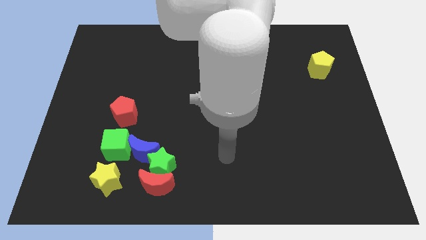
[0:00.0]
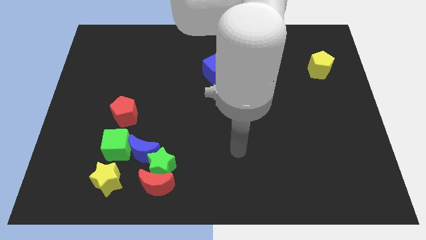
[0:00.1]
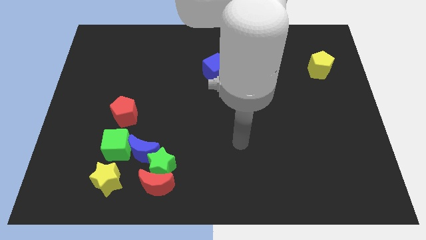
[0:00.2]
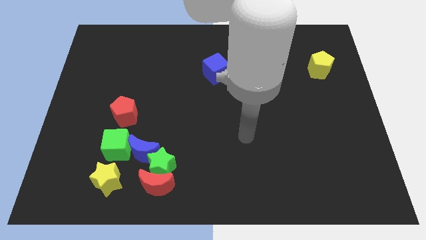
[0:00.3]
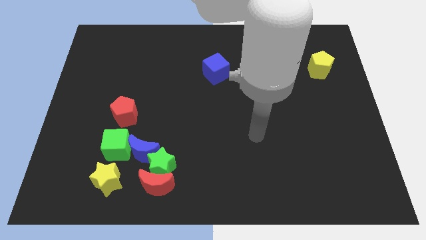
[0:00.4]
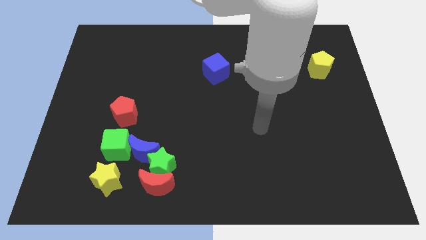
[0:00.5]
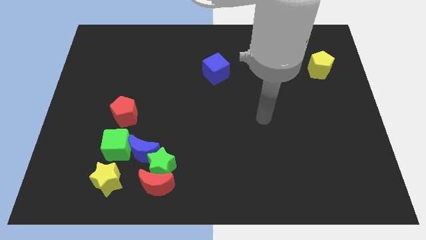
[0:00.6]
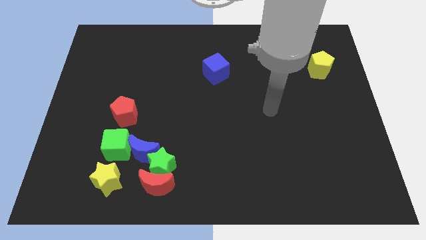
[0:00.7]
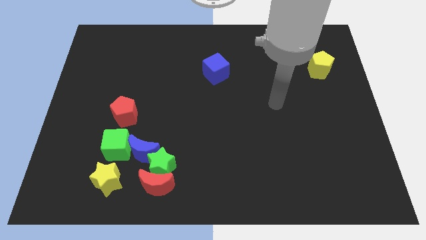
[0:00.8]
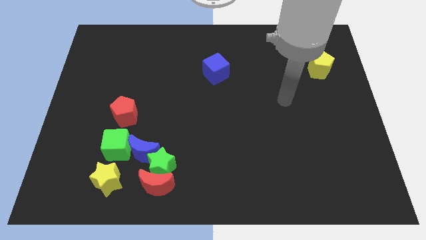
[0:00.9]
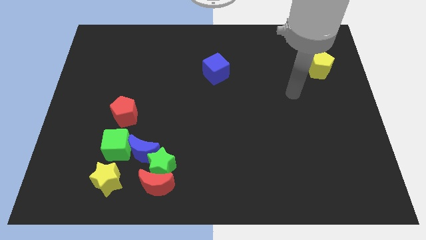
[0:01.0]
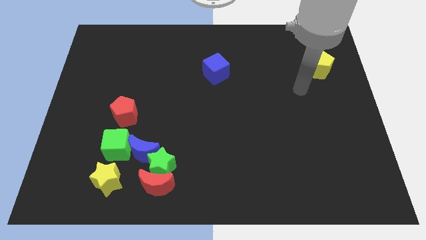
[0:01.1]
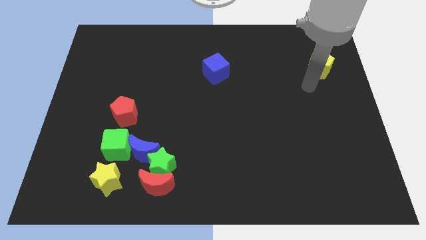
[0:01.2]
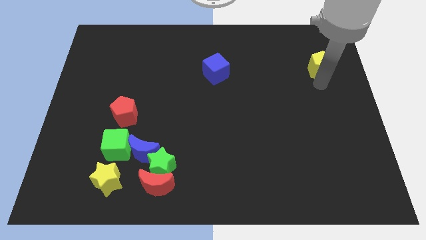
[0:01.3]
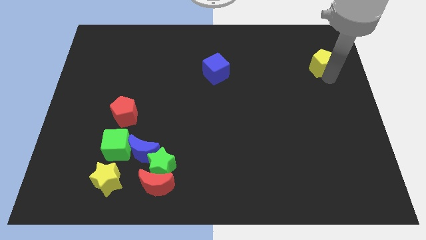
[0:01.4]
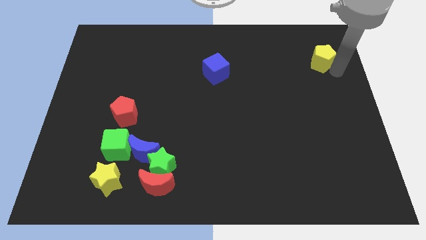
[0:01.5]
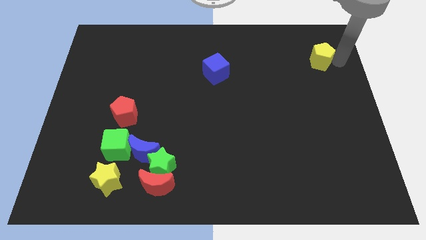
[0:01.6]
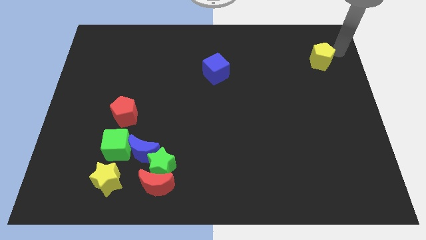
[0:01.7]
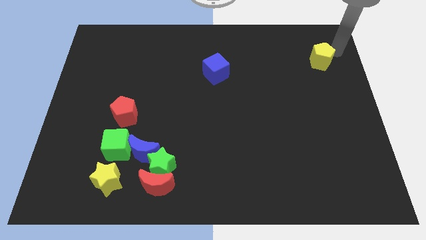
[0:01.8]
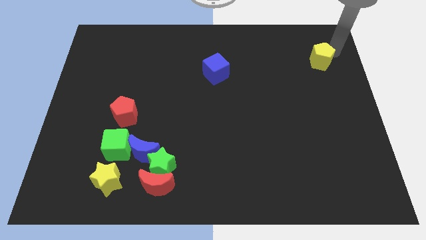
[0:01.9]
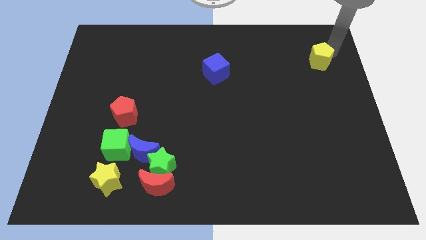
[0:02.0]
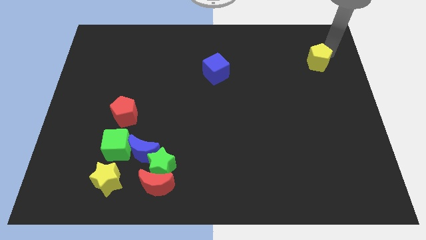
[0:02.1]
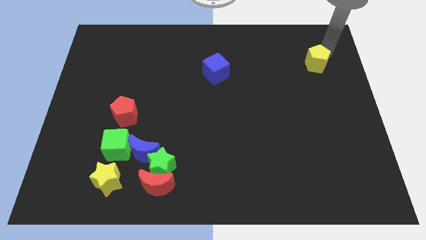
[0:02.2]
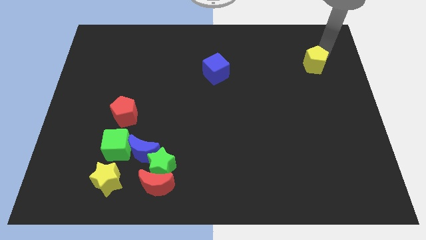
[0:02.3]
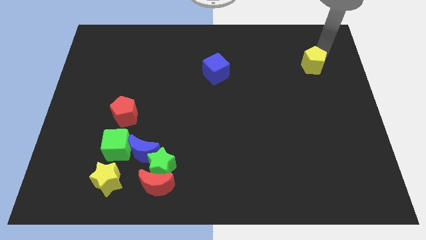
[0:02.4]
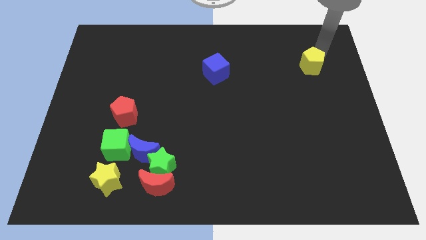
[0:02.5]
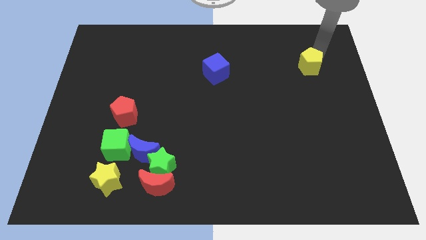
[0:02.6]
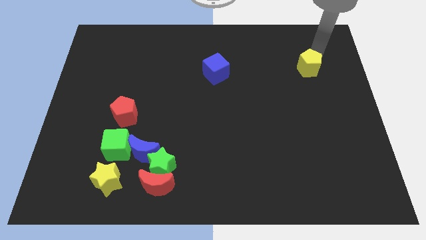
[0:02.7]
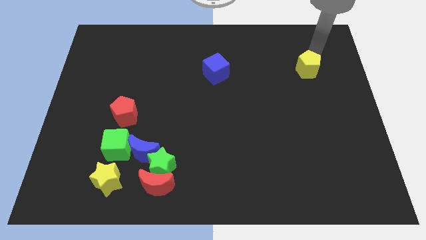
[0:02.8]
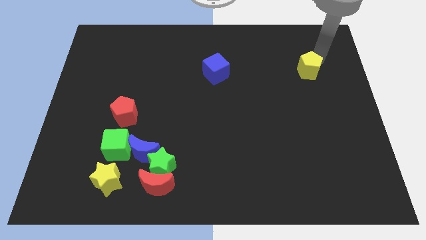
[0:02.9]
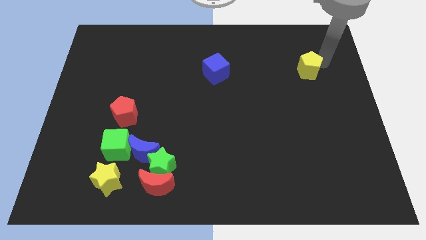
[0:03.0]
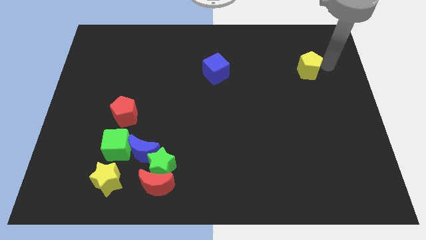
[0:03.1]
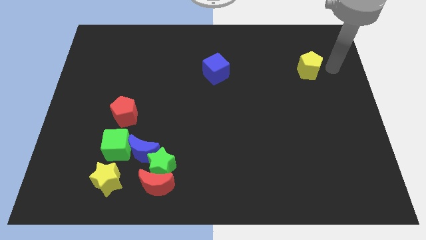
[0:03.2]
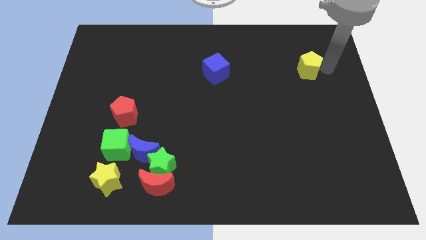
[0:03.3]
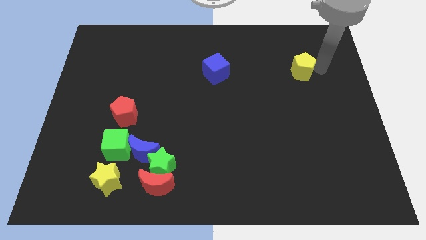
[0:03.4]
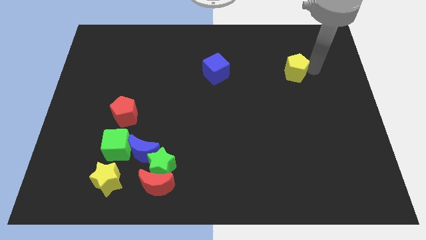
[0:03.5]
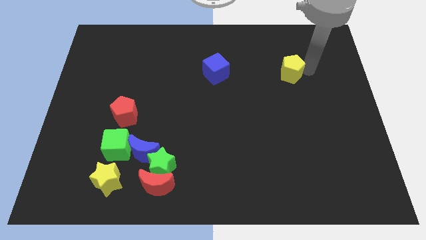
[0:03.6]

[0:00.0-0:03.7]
move the yellow pentagon left a bit

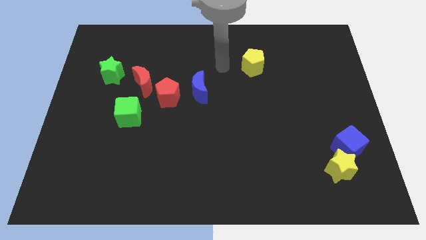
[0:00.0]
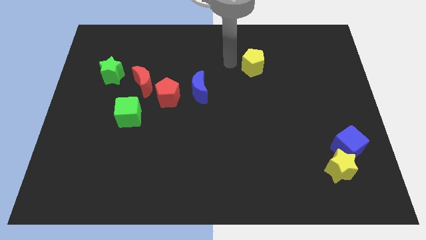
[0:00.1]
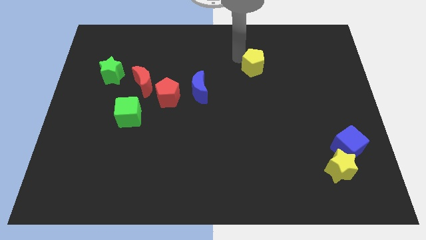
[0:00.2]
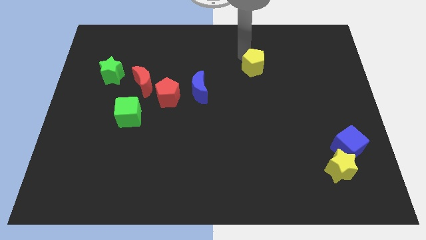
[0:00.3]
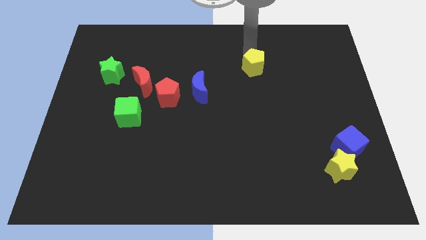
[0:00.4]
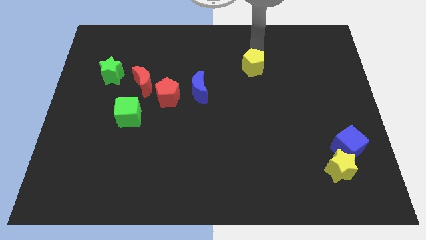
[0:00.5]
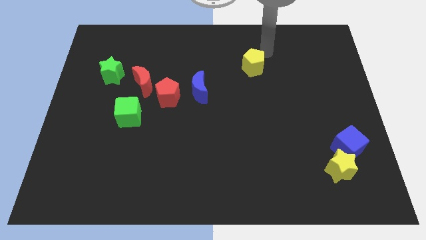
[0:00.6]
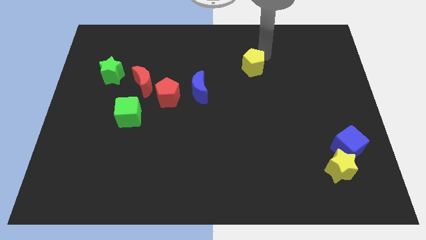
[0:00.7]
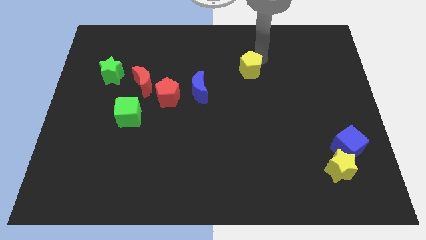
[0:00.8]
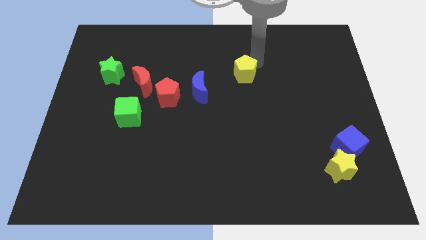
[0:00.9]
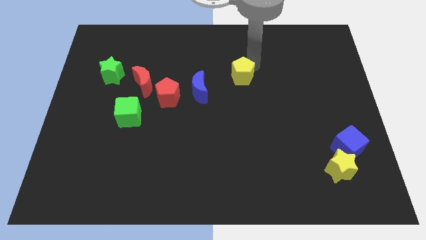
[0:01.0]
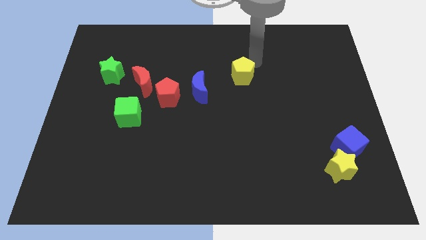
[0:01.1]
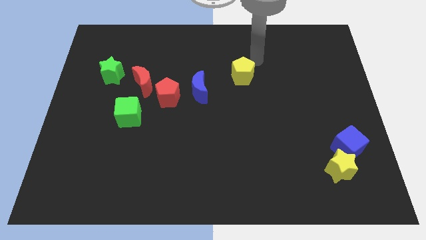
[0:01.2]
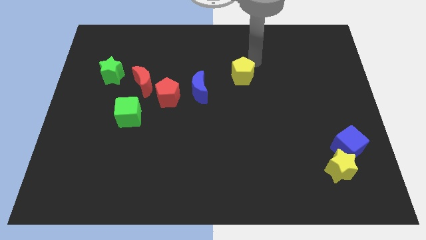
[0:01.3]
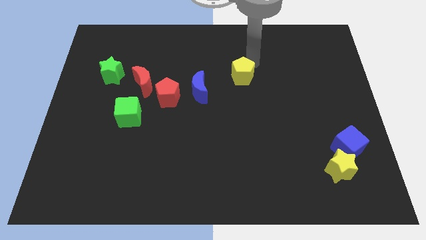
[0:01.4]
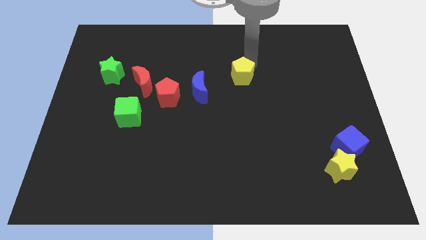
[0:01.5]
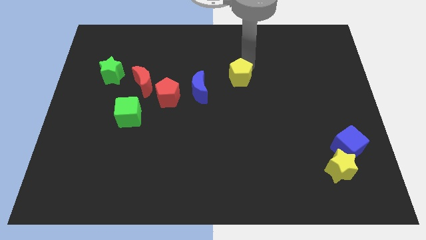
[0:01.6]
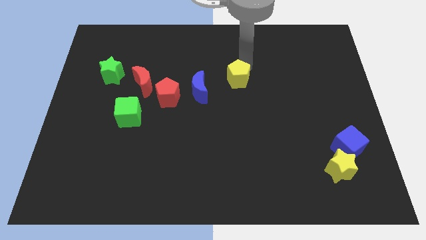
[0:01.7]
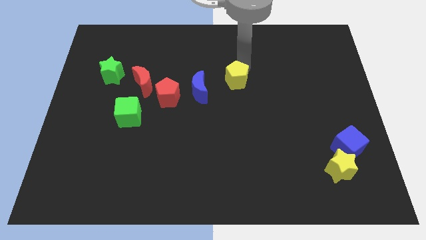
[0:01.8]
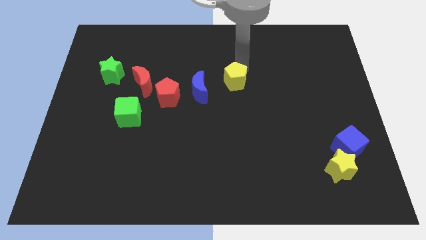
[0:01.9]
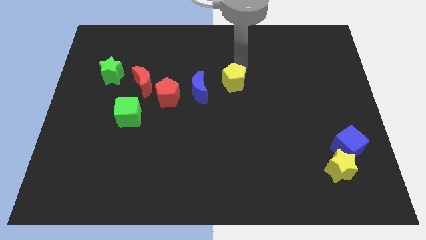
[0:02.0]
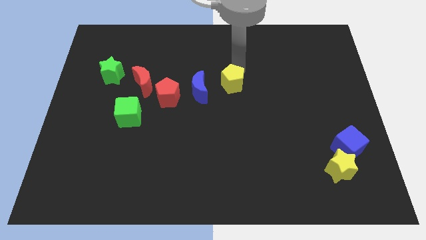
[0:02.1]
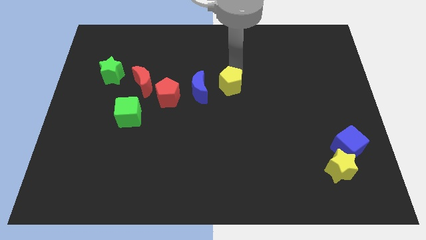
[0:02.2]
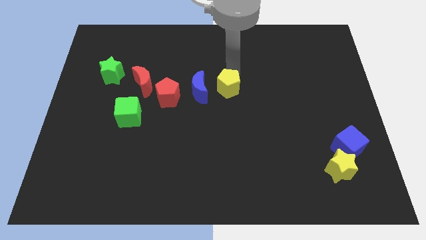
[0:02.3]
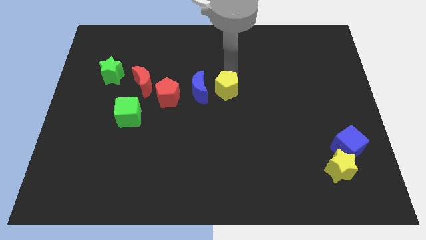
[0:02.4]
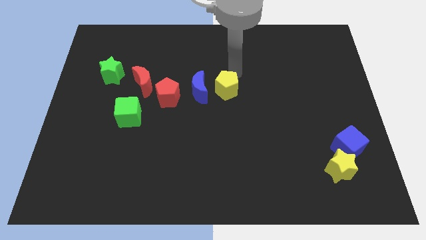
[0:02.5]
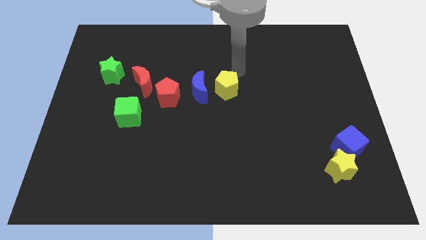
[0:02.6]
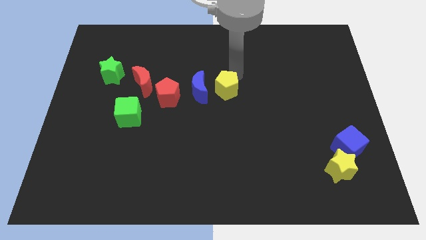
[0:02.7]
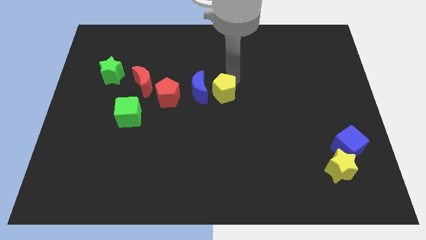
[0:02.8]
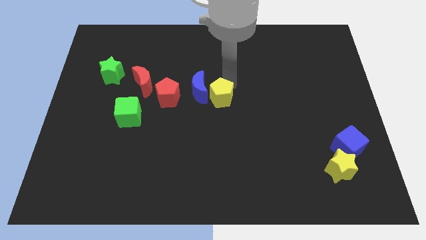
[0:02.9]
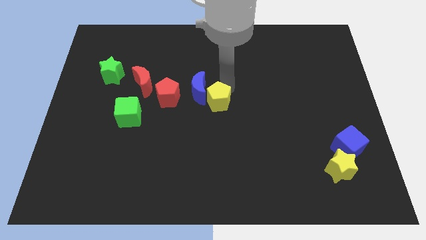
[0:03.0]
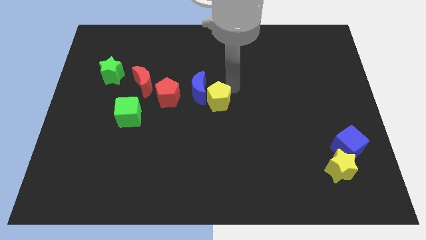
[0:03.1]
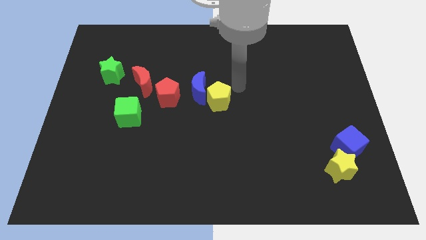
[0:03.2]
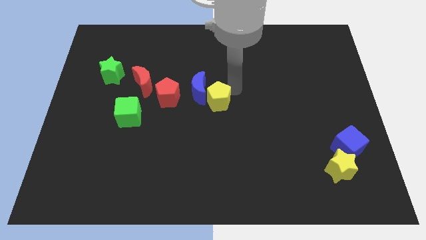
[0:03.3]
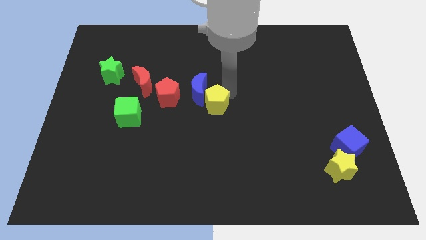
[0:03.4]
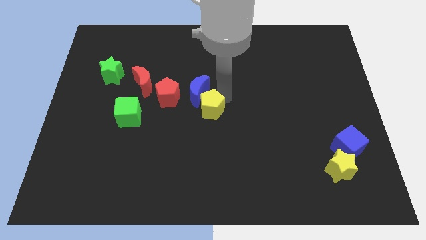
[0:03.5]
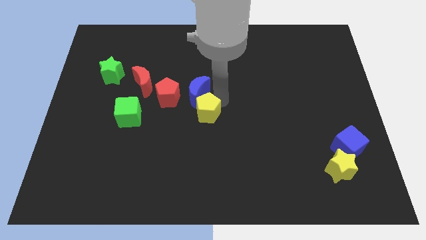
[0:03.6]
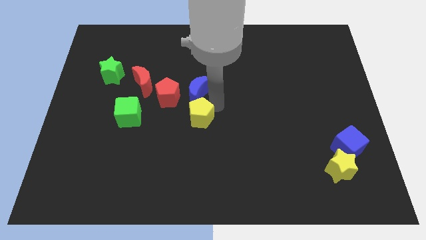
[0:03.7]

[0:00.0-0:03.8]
slide the yellow pentagon downwards and to the left diagonally
